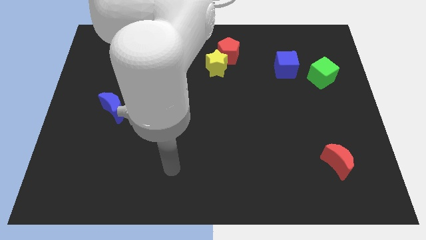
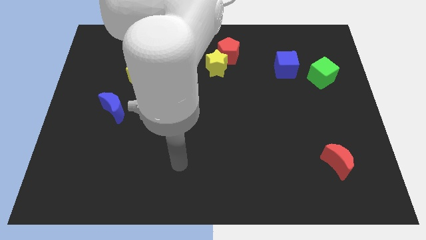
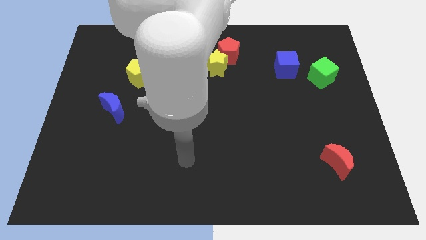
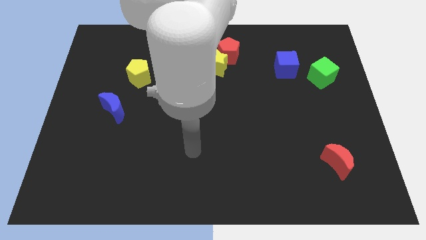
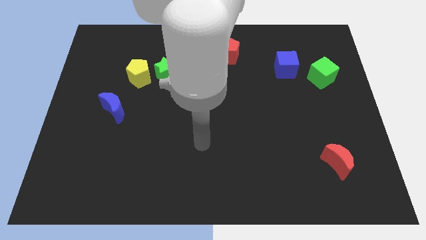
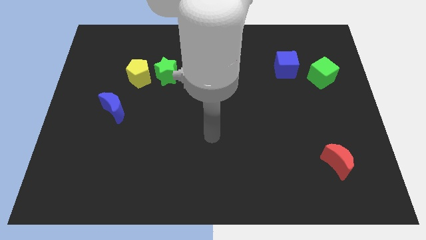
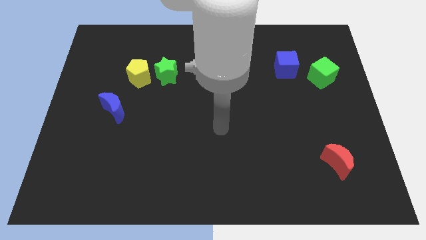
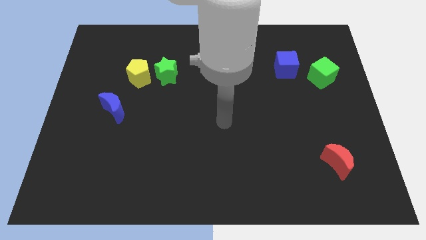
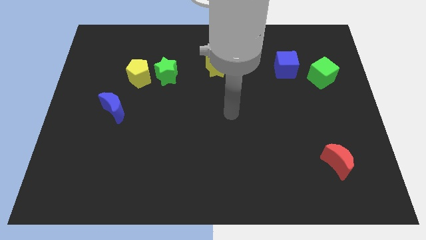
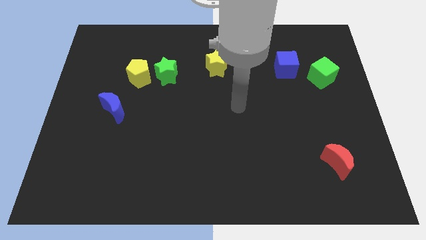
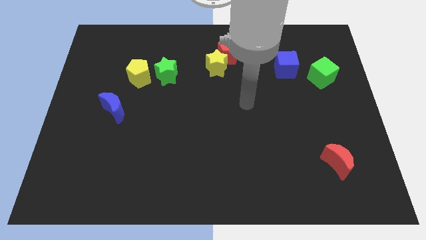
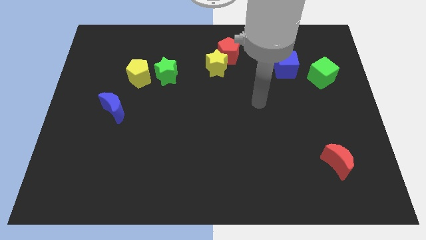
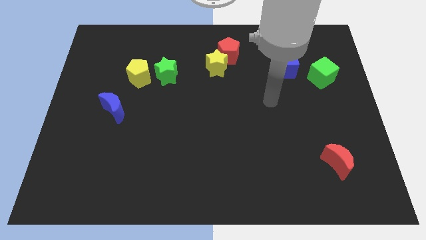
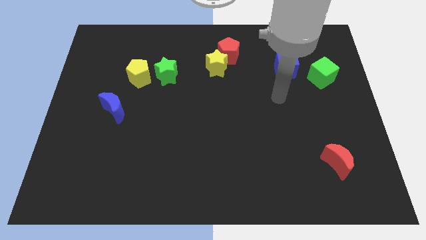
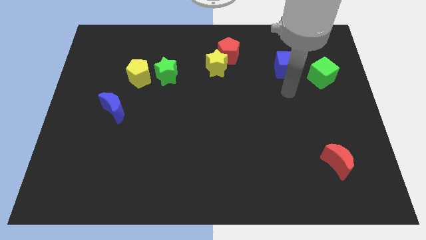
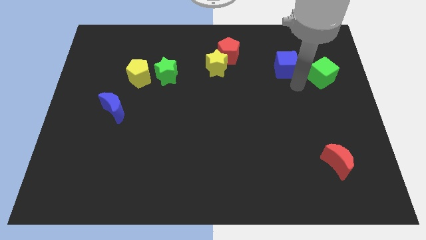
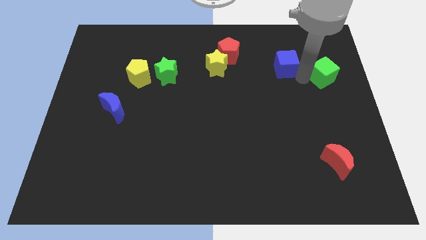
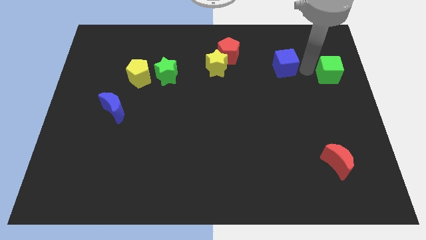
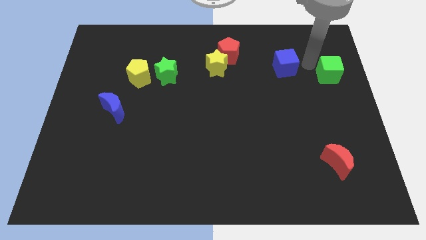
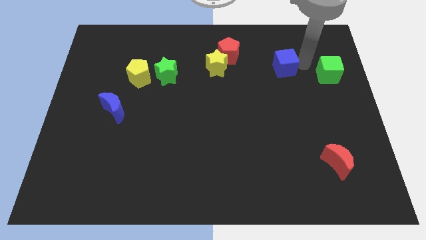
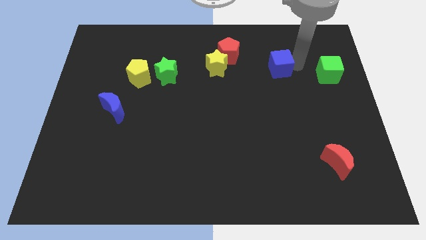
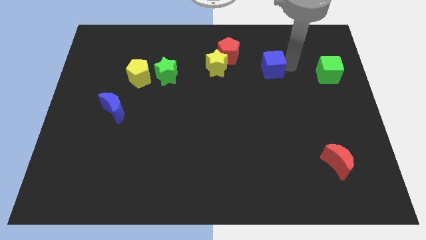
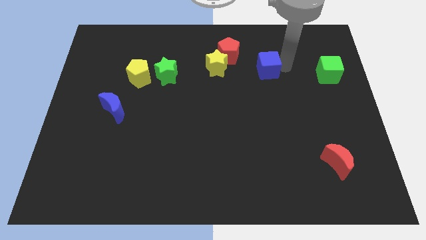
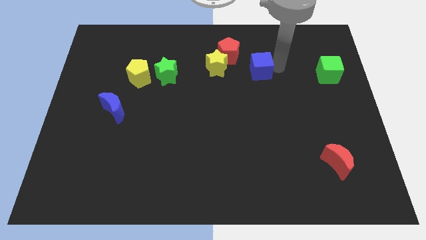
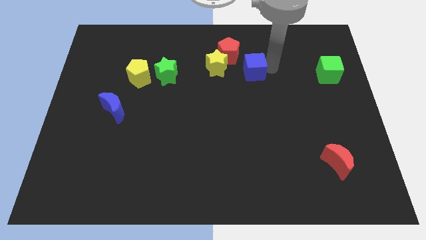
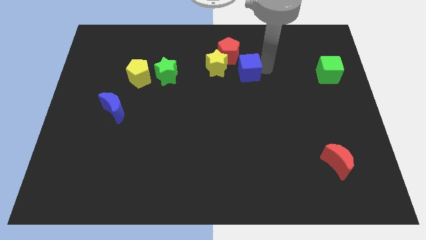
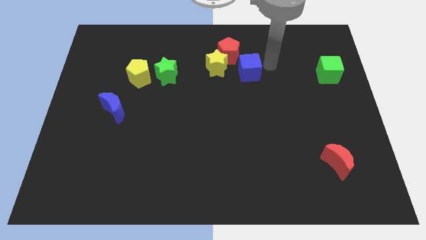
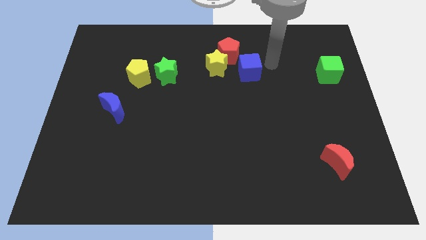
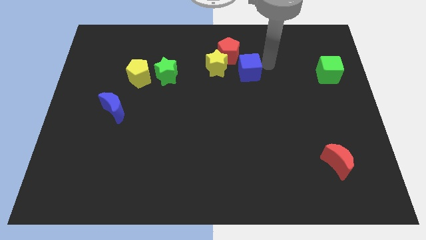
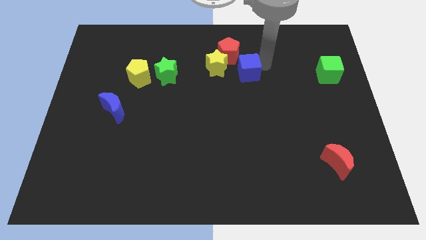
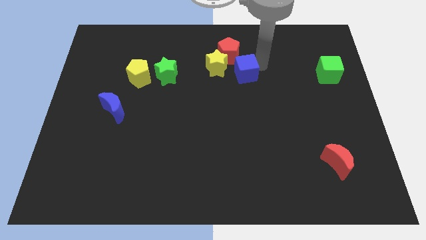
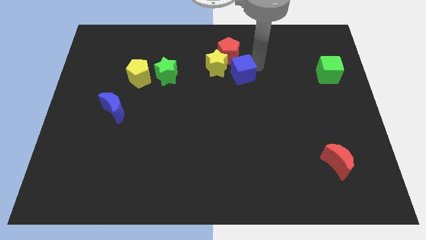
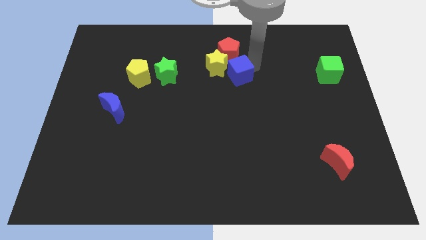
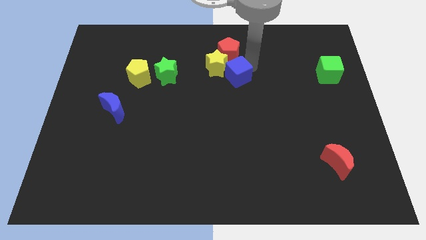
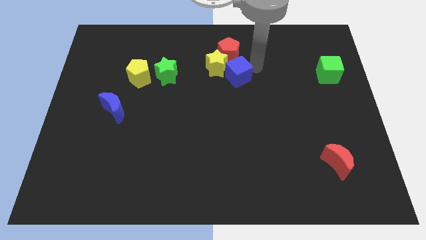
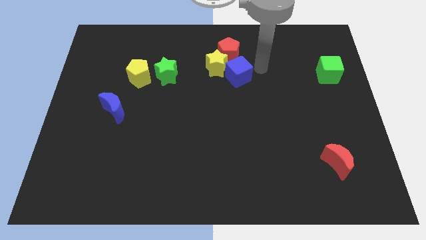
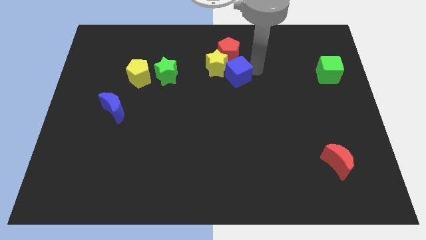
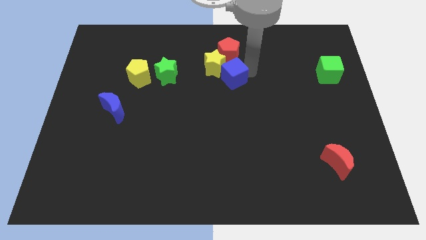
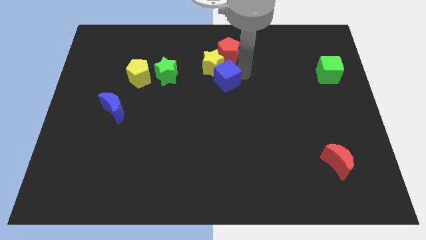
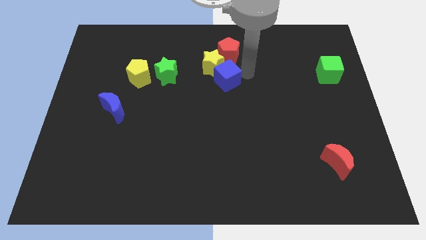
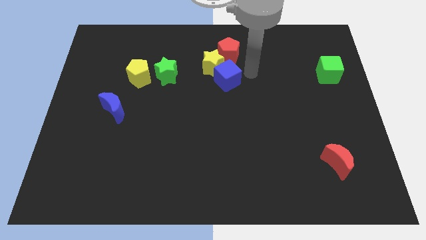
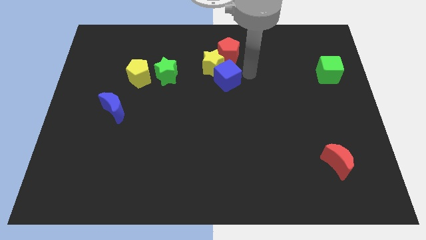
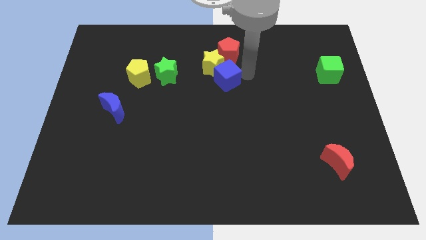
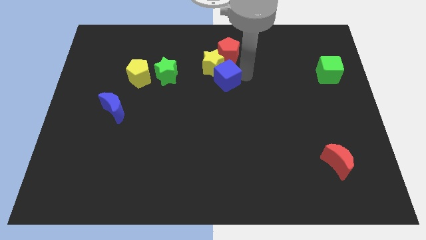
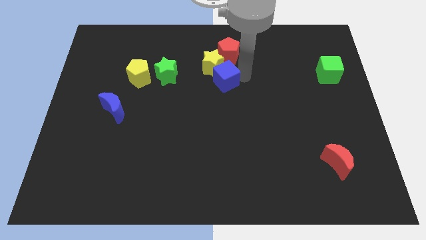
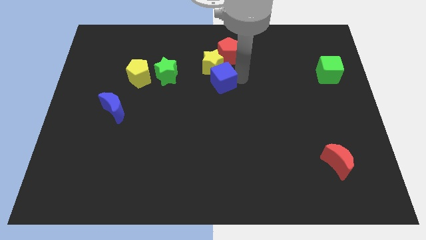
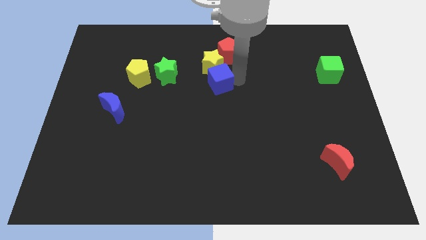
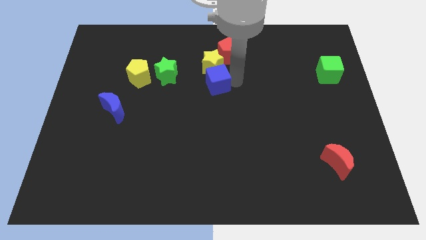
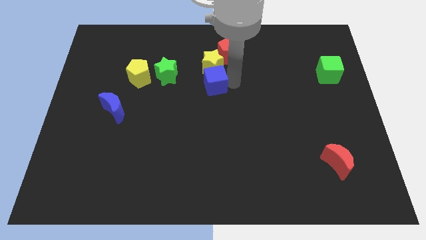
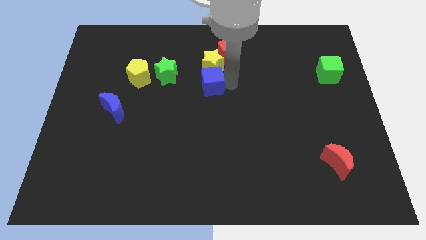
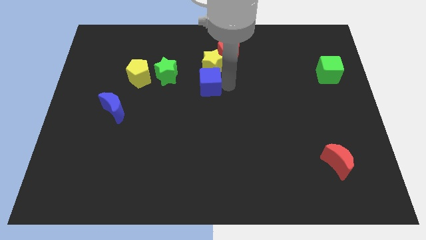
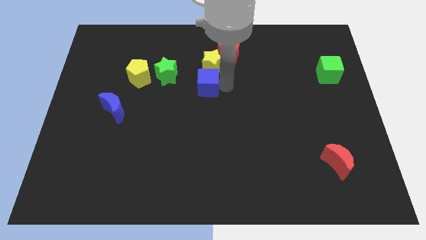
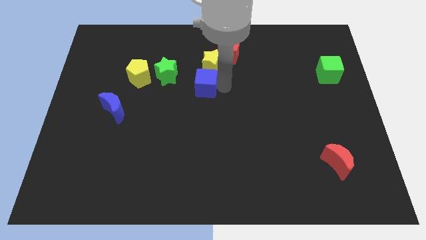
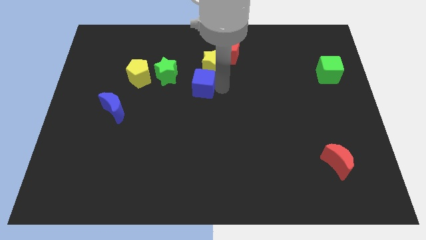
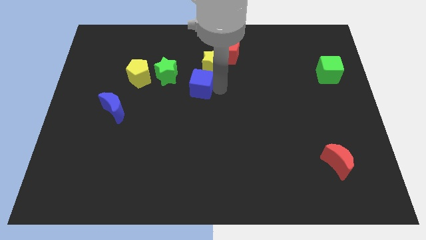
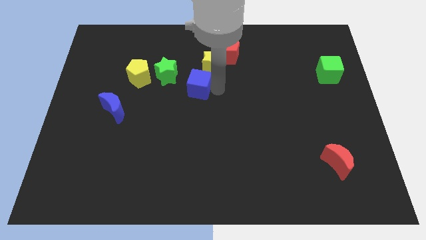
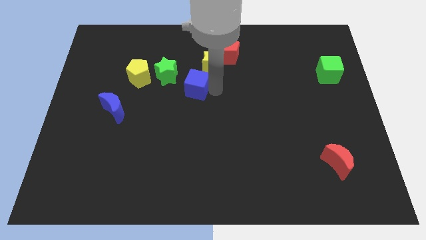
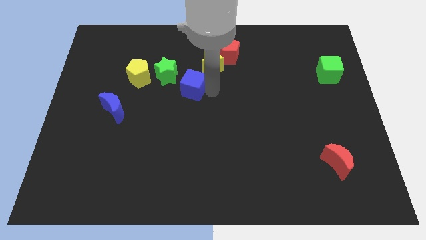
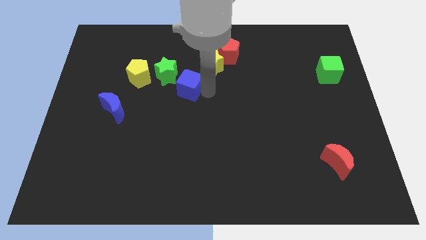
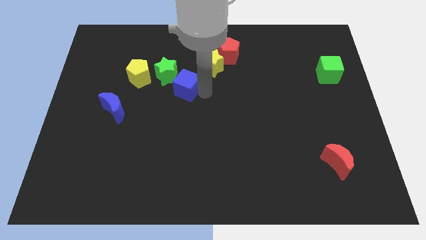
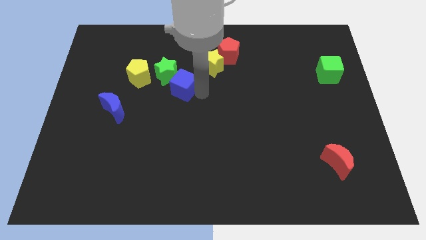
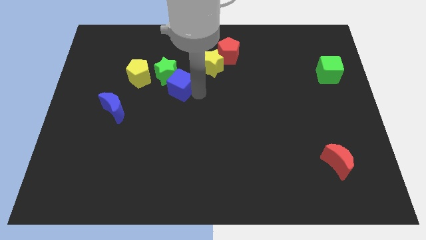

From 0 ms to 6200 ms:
push the blue cube close to the green star

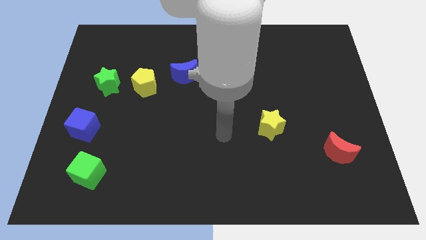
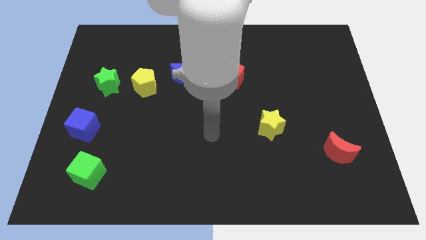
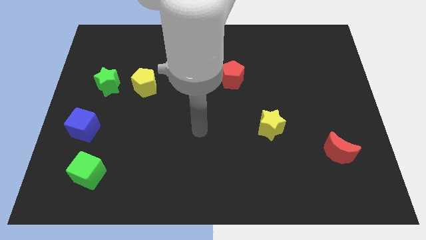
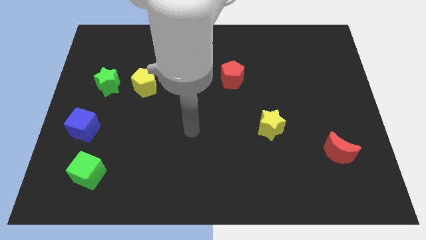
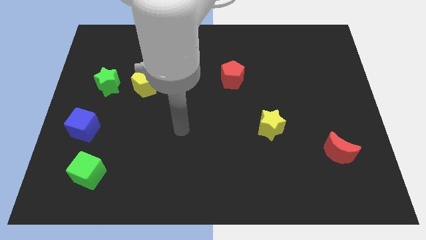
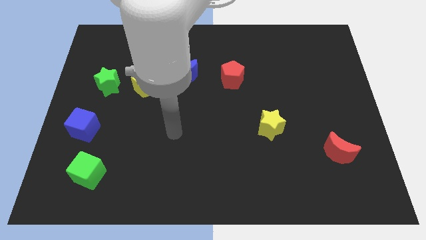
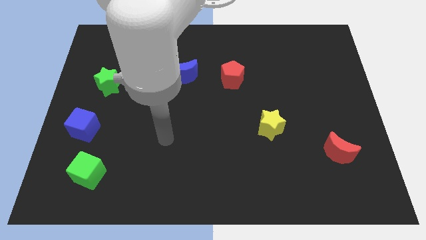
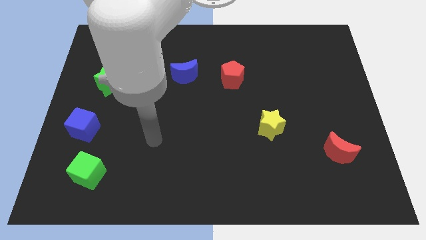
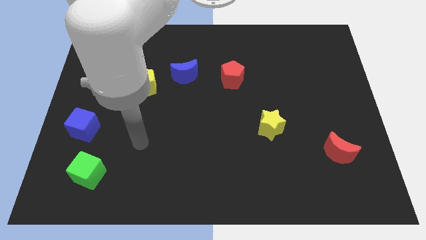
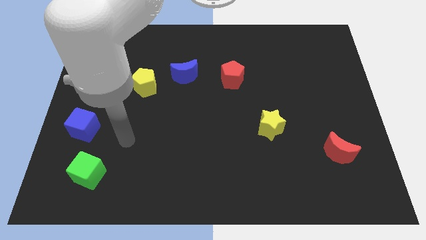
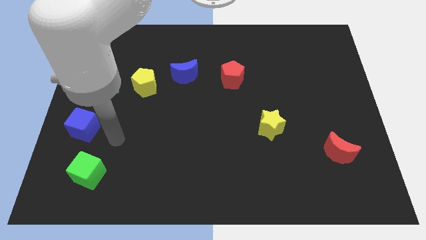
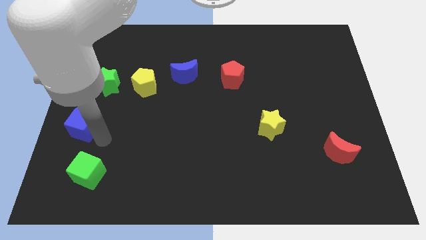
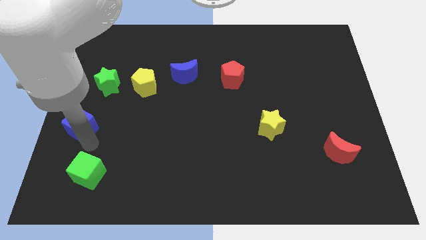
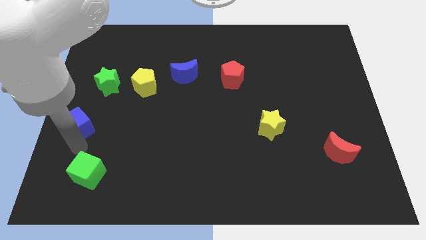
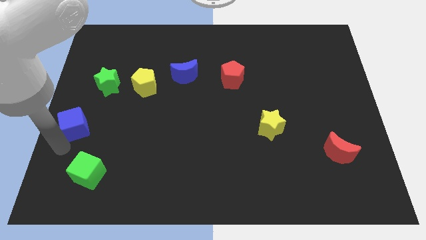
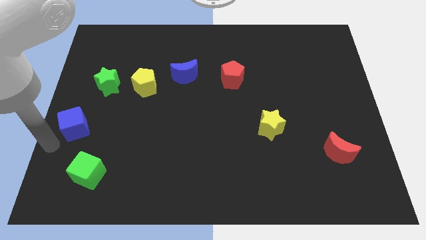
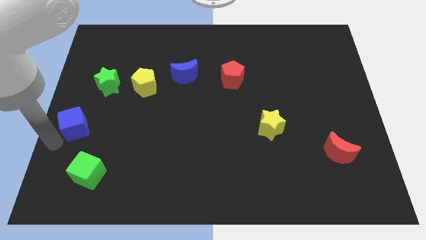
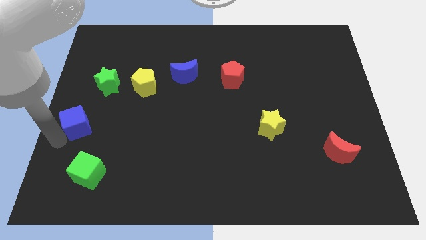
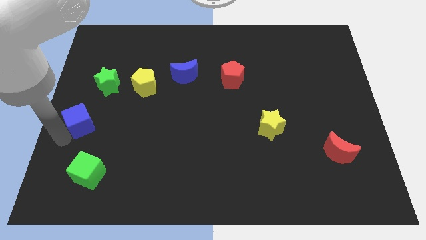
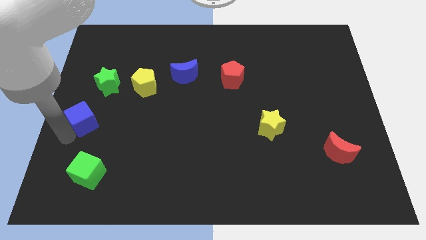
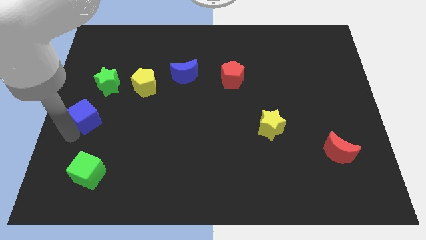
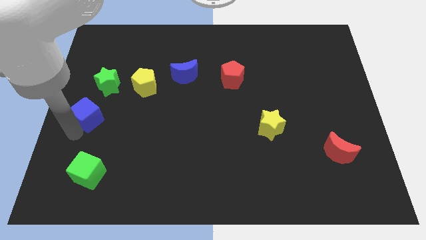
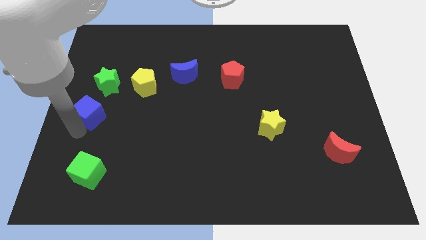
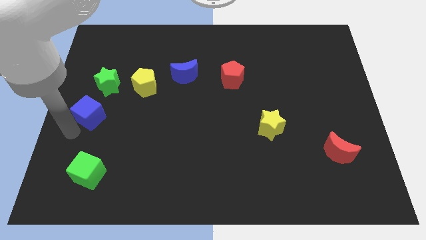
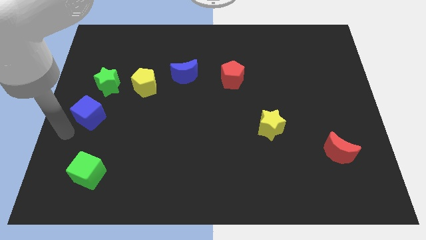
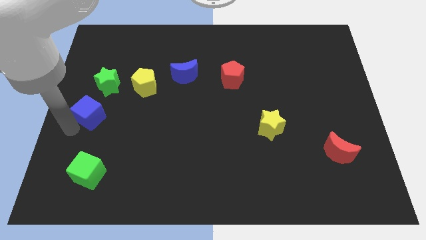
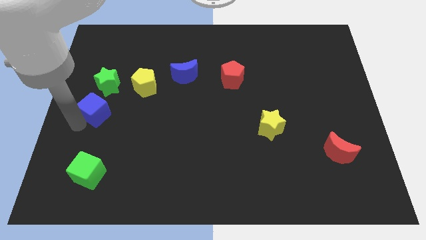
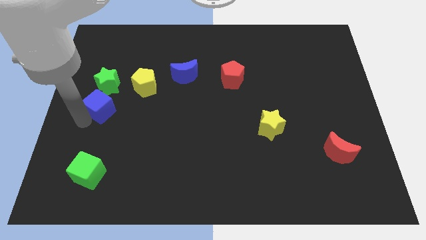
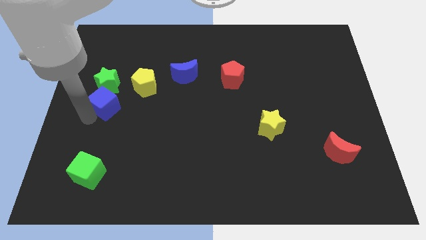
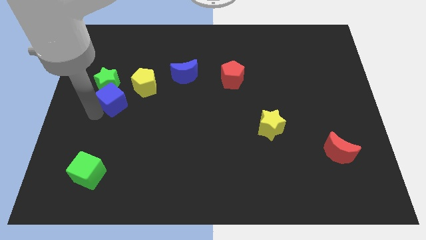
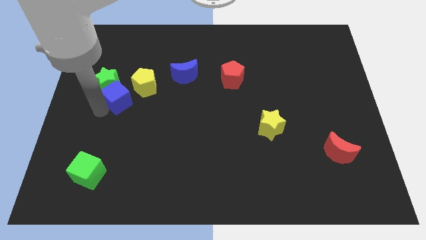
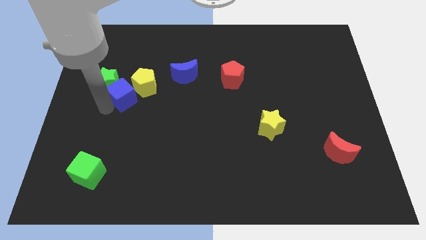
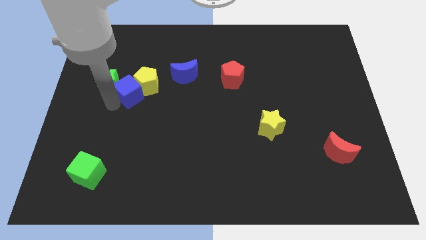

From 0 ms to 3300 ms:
put the blue cube close to the yellow pentagon
